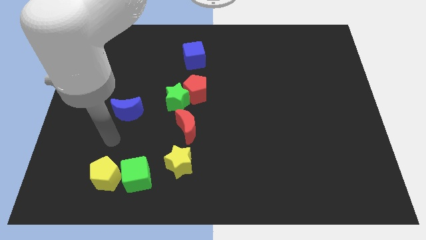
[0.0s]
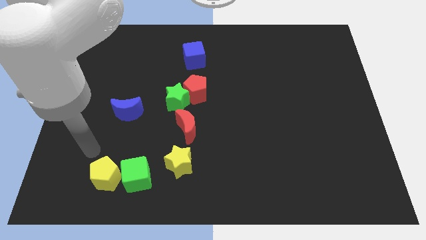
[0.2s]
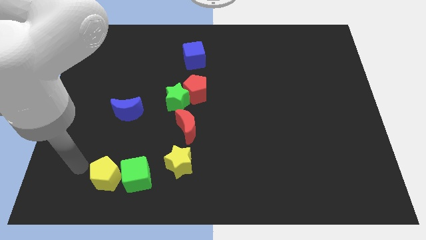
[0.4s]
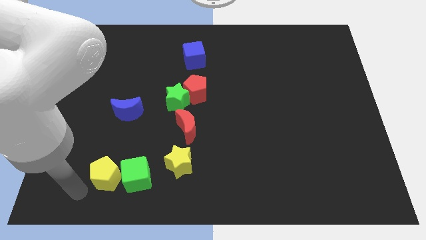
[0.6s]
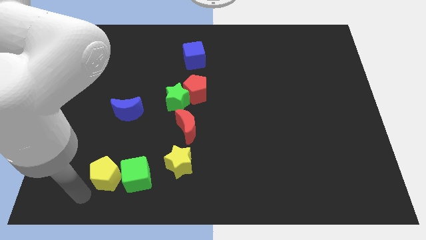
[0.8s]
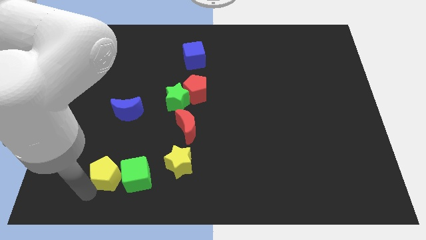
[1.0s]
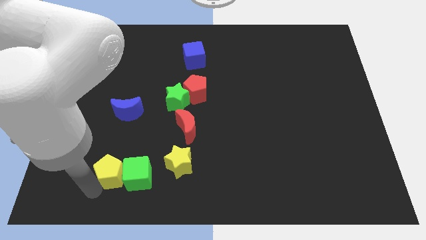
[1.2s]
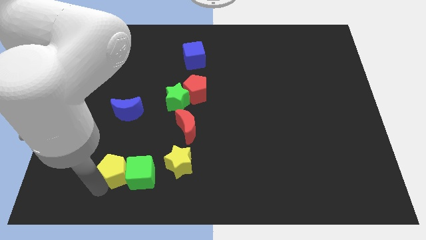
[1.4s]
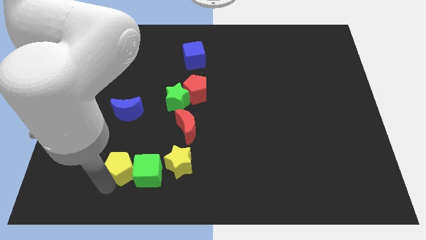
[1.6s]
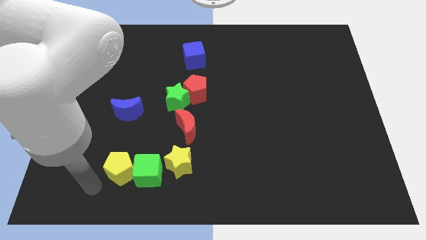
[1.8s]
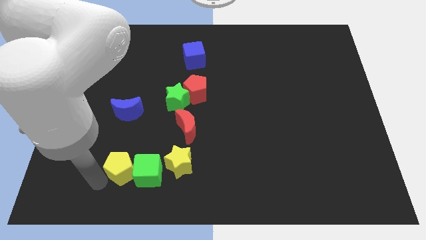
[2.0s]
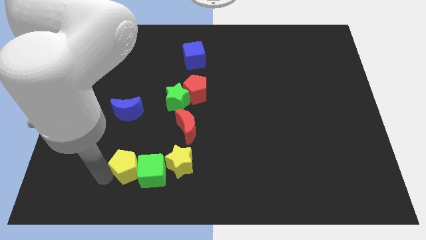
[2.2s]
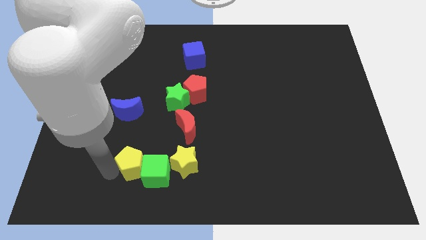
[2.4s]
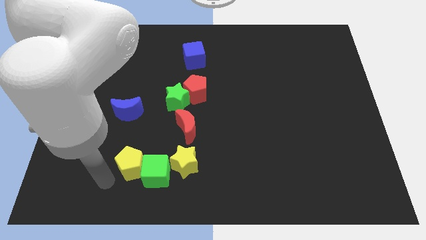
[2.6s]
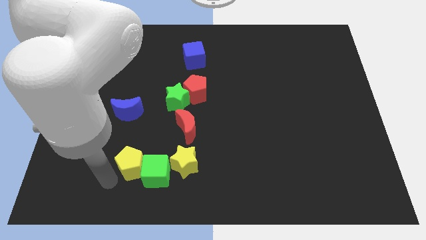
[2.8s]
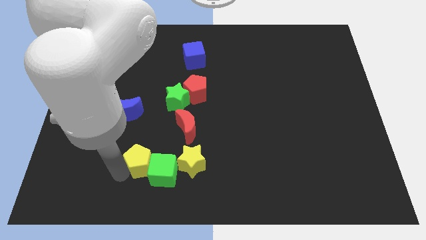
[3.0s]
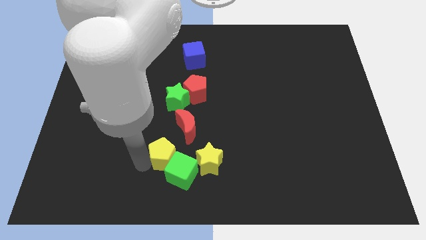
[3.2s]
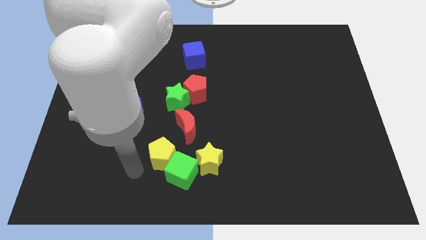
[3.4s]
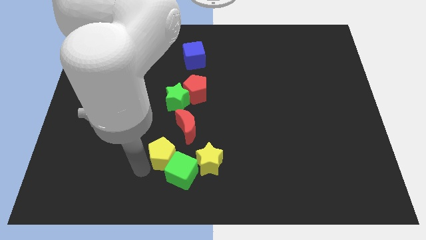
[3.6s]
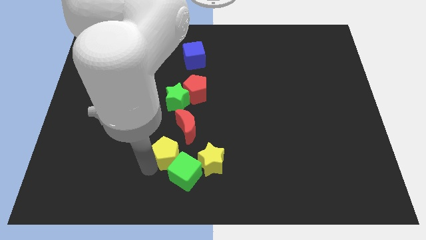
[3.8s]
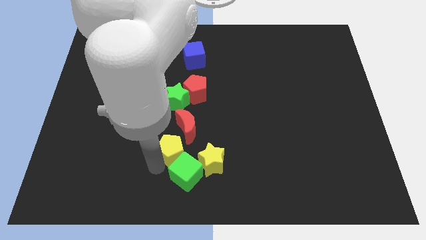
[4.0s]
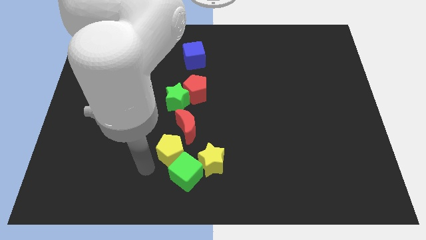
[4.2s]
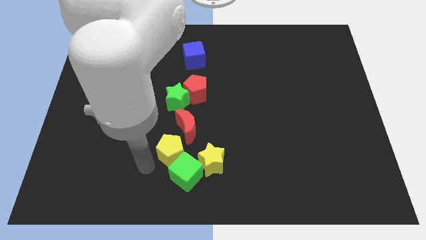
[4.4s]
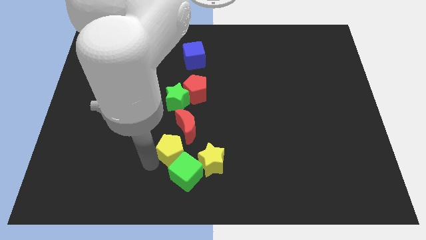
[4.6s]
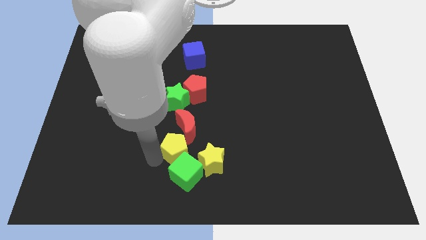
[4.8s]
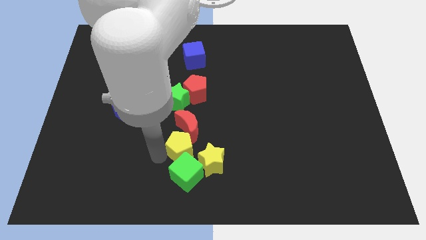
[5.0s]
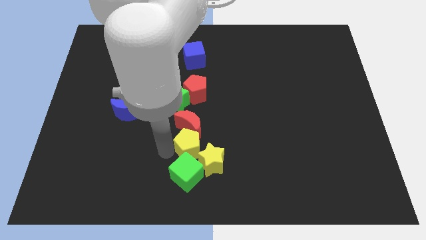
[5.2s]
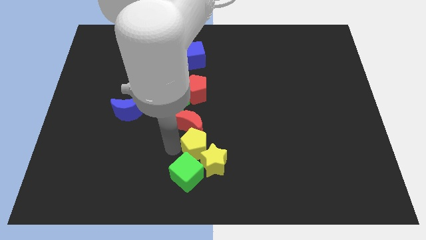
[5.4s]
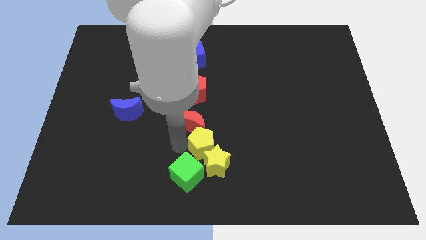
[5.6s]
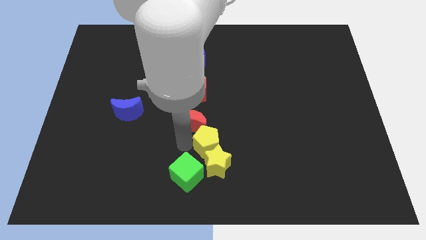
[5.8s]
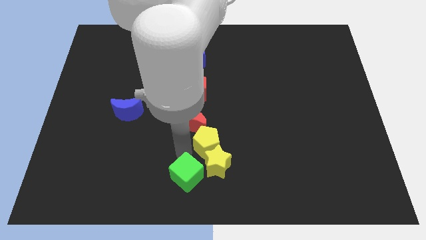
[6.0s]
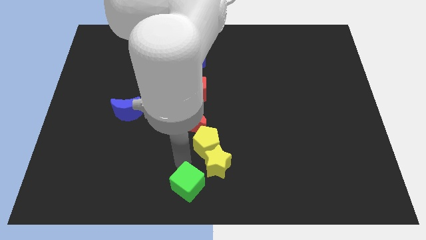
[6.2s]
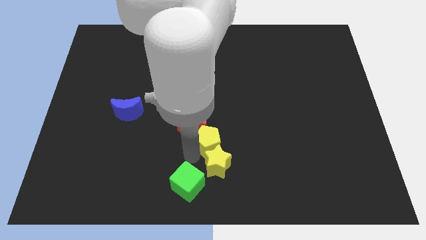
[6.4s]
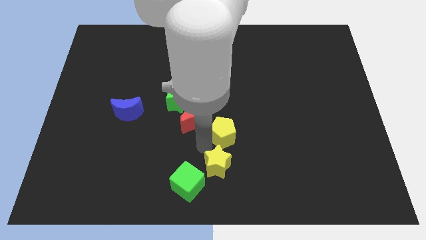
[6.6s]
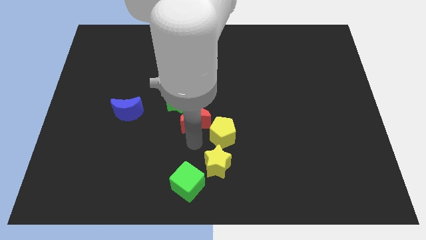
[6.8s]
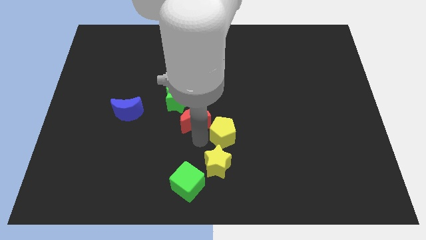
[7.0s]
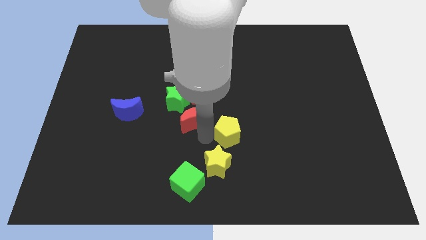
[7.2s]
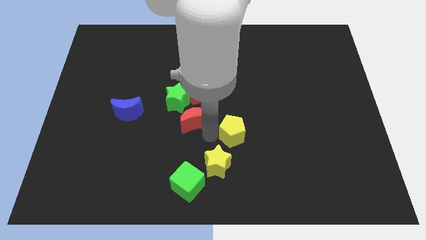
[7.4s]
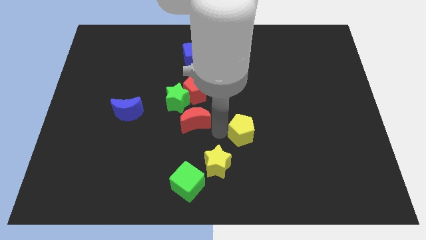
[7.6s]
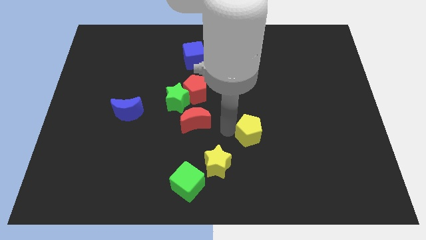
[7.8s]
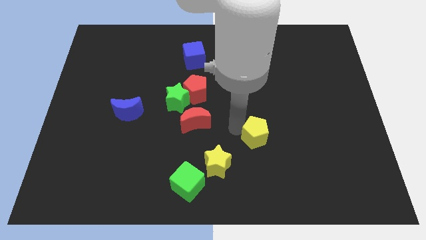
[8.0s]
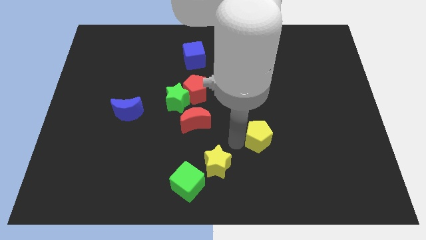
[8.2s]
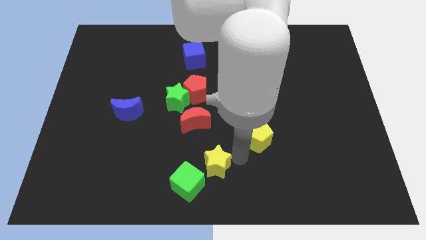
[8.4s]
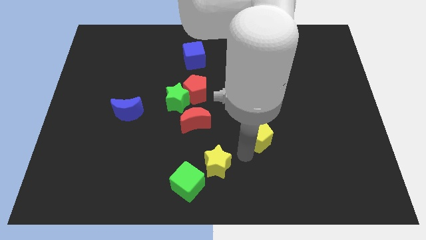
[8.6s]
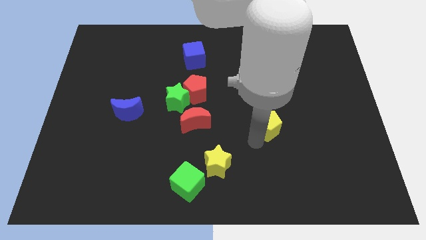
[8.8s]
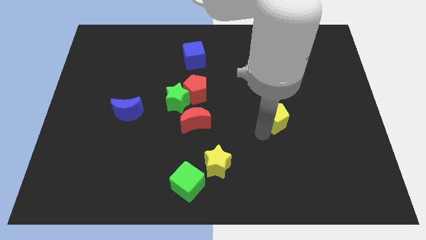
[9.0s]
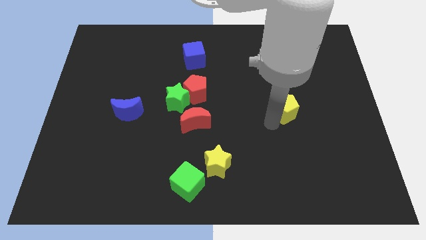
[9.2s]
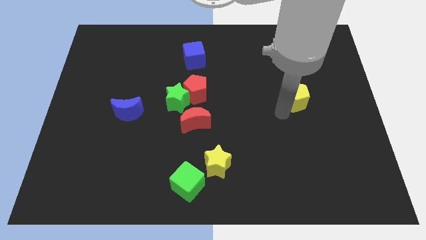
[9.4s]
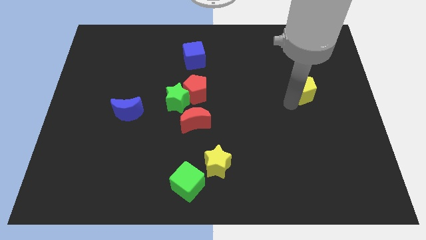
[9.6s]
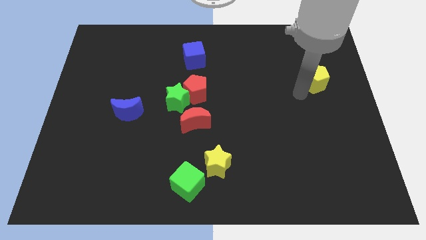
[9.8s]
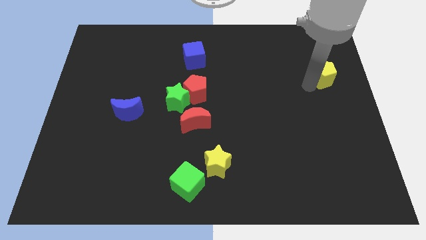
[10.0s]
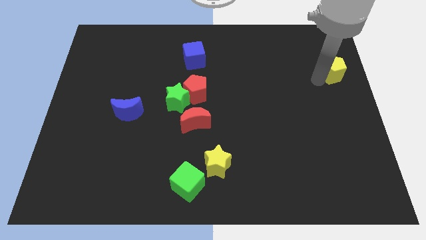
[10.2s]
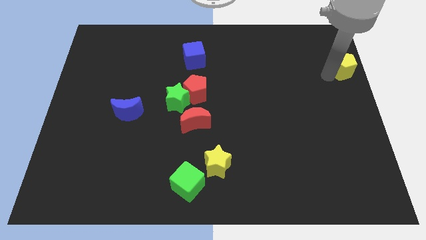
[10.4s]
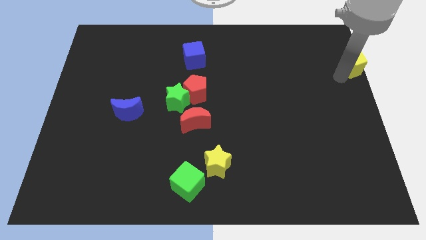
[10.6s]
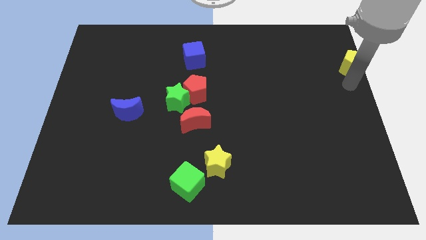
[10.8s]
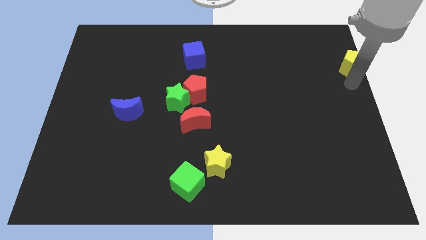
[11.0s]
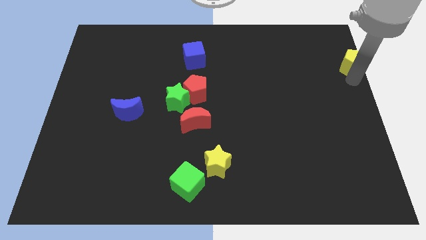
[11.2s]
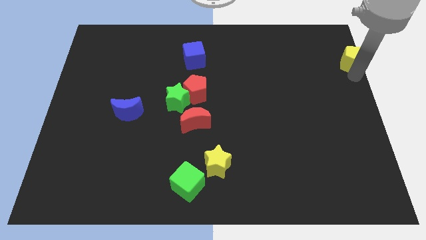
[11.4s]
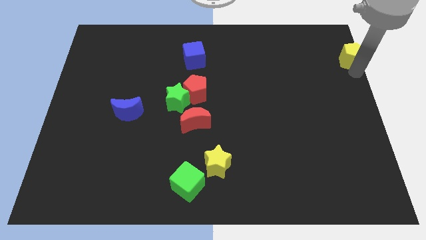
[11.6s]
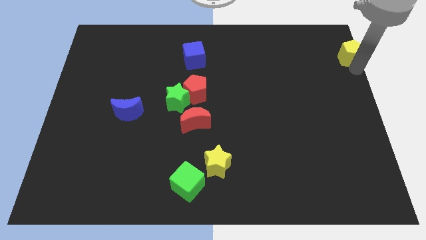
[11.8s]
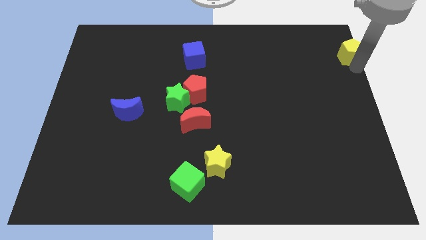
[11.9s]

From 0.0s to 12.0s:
put the yellow pentagon to the upper right corner
